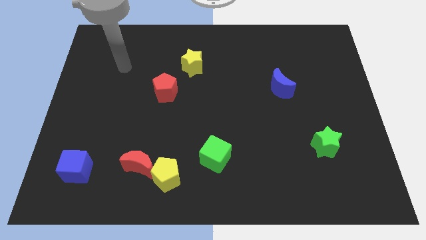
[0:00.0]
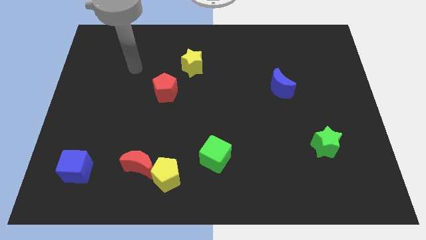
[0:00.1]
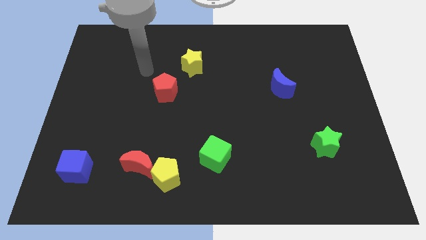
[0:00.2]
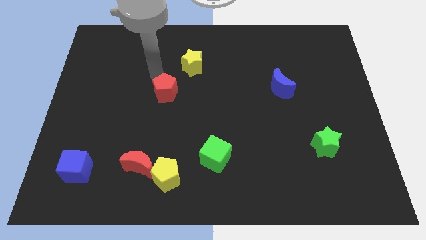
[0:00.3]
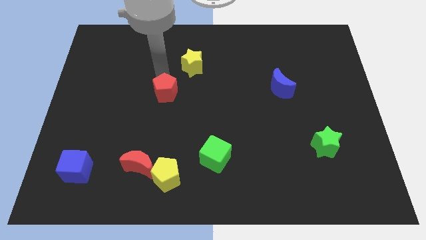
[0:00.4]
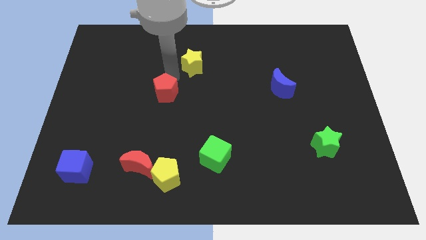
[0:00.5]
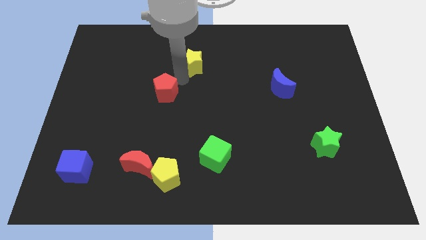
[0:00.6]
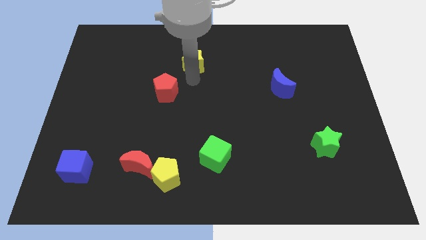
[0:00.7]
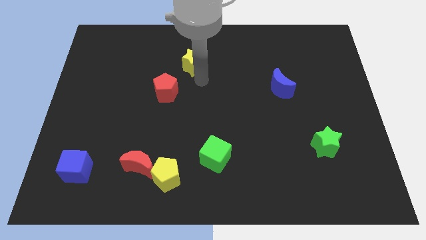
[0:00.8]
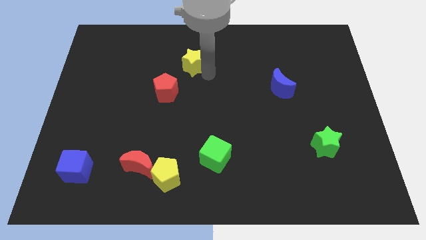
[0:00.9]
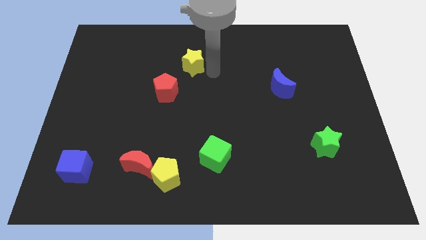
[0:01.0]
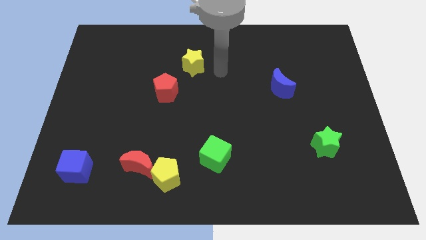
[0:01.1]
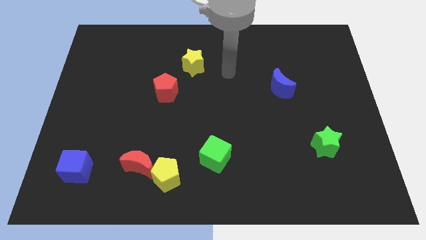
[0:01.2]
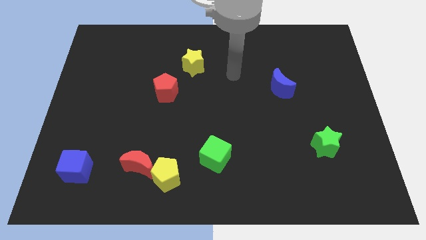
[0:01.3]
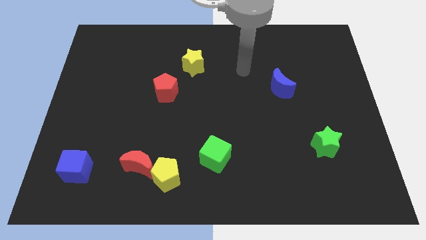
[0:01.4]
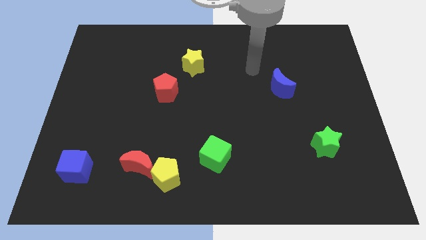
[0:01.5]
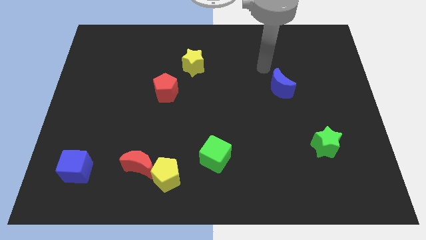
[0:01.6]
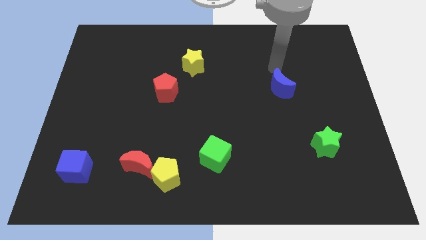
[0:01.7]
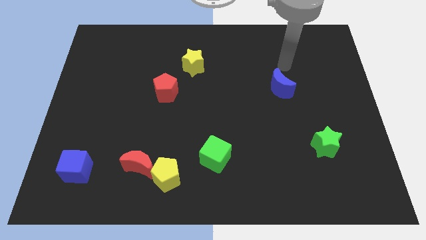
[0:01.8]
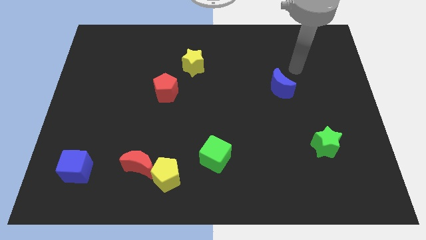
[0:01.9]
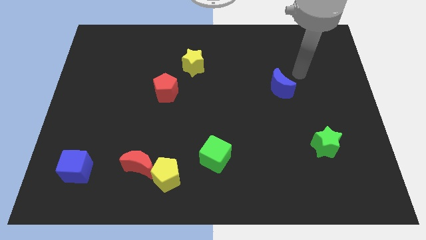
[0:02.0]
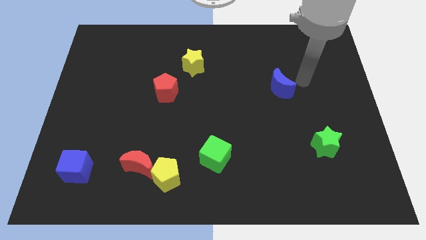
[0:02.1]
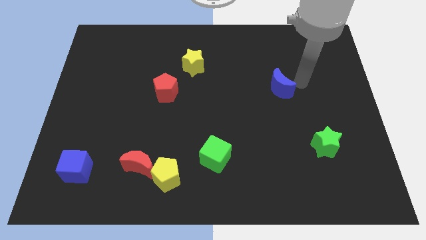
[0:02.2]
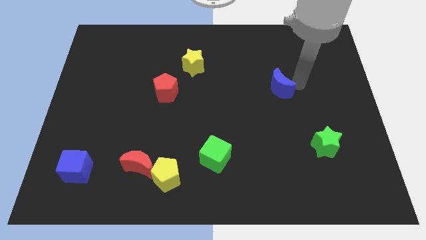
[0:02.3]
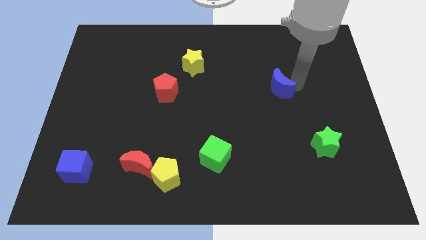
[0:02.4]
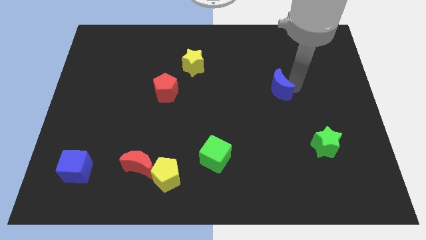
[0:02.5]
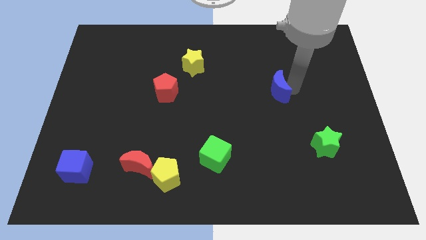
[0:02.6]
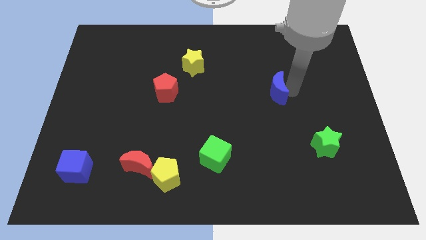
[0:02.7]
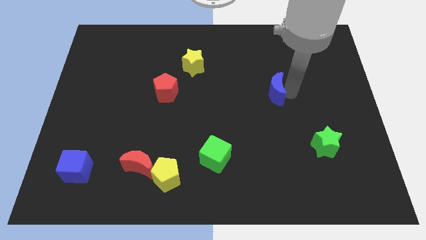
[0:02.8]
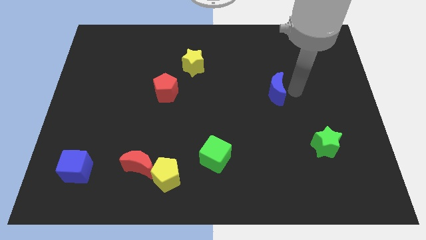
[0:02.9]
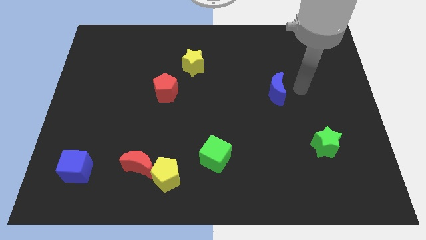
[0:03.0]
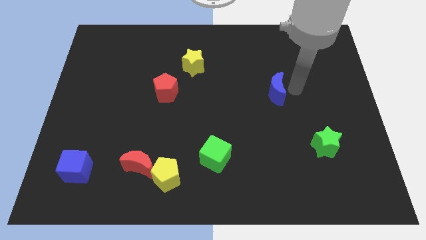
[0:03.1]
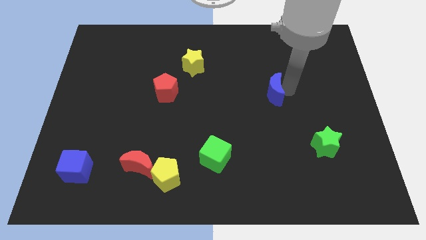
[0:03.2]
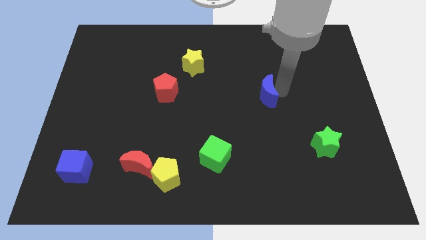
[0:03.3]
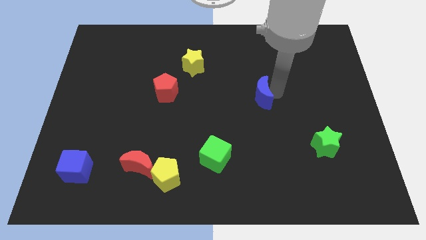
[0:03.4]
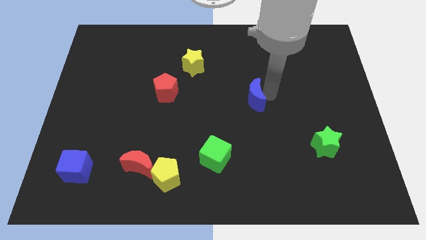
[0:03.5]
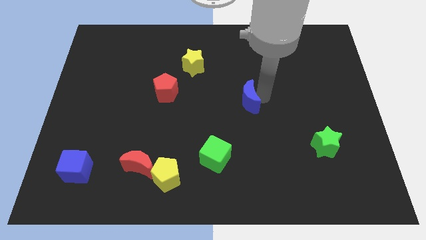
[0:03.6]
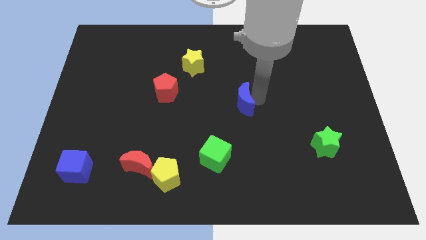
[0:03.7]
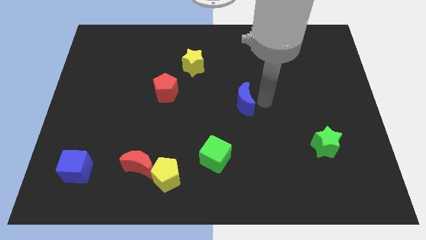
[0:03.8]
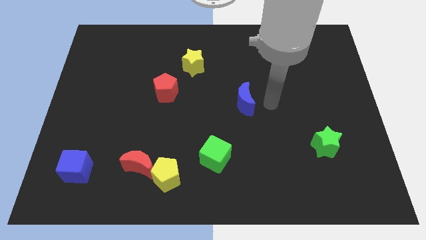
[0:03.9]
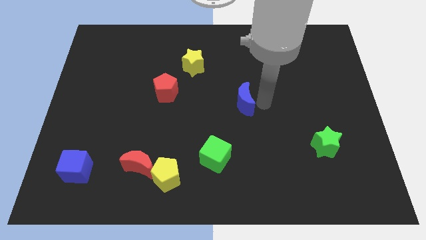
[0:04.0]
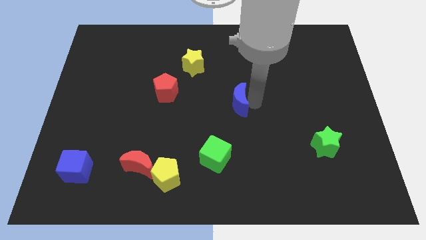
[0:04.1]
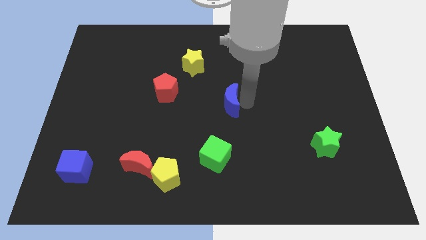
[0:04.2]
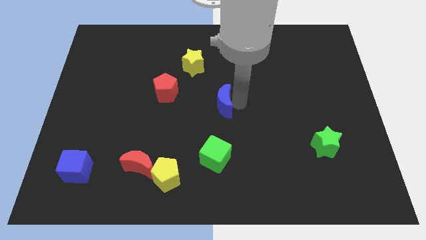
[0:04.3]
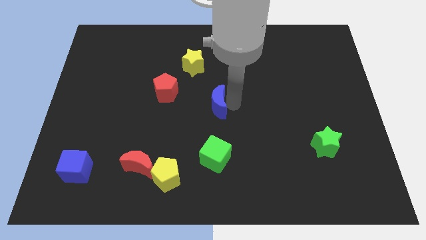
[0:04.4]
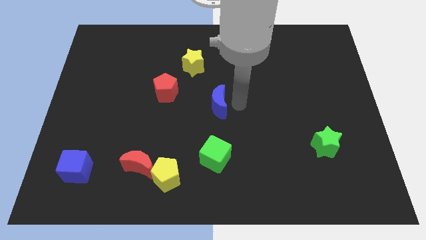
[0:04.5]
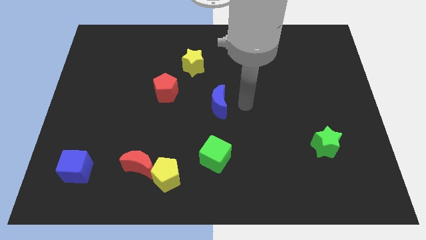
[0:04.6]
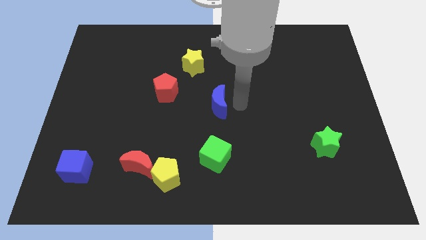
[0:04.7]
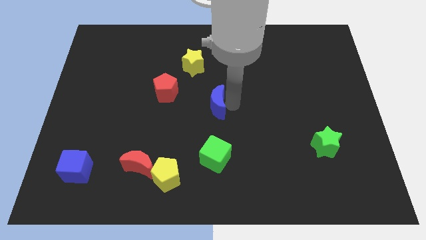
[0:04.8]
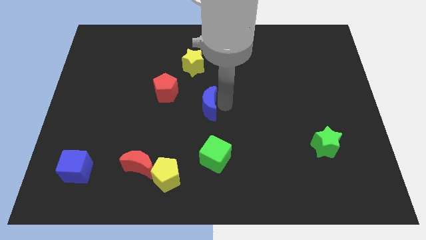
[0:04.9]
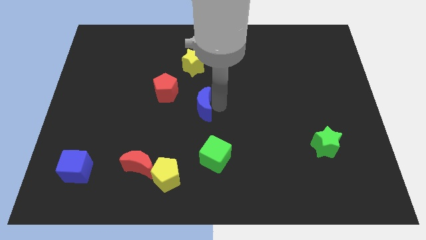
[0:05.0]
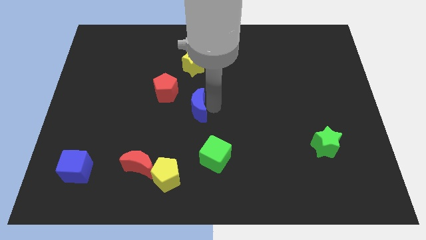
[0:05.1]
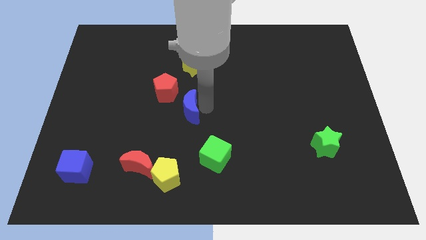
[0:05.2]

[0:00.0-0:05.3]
push the blue moon to the left

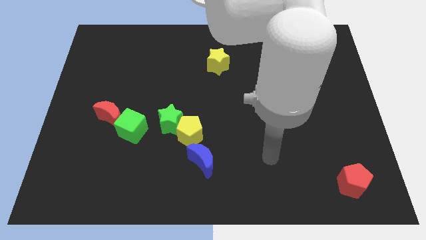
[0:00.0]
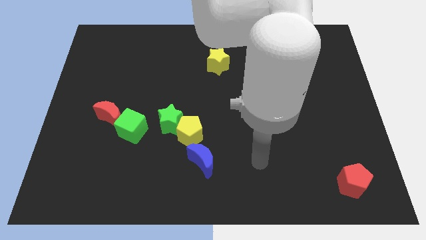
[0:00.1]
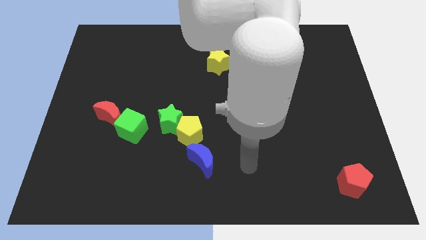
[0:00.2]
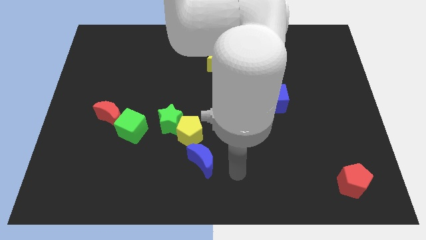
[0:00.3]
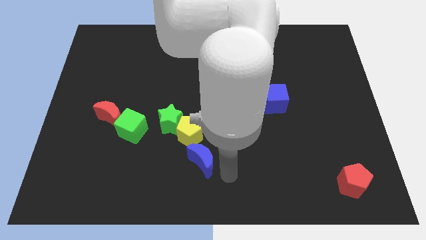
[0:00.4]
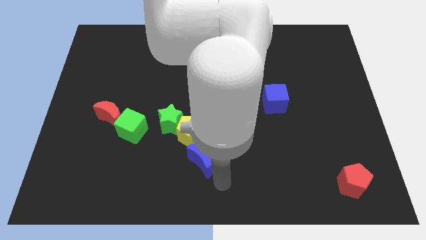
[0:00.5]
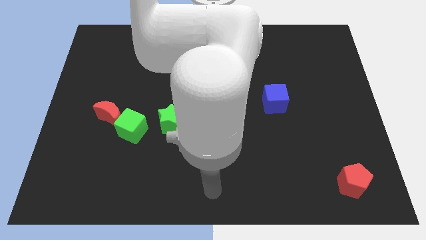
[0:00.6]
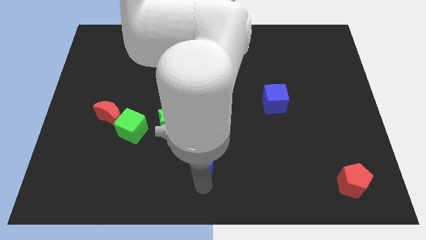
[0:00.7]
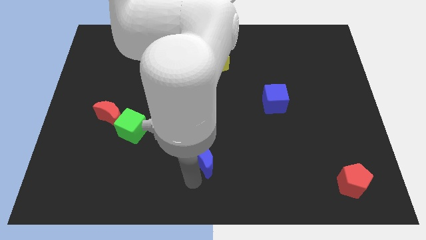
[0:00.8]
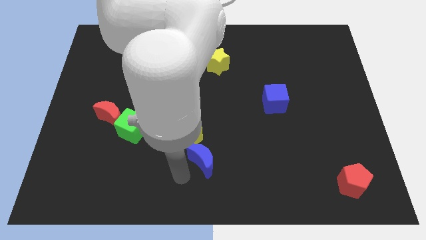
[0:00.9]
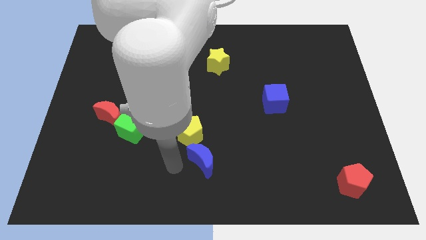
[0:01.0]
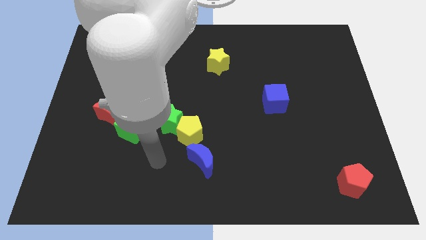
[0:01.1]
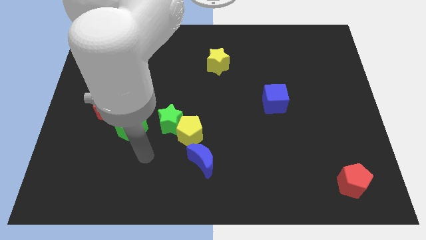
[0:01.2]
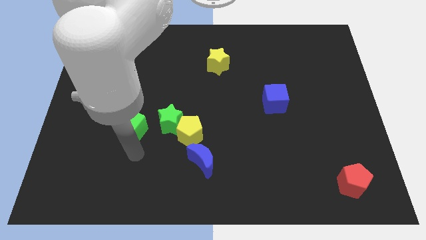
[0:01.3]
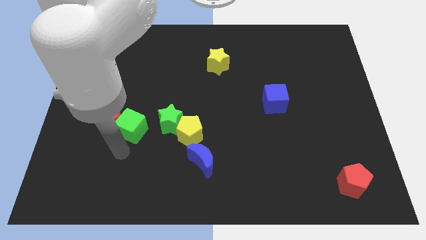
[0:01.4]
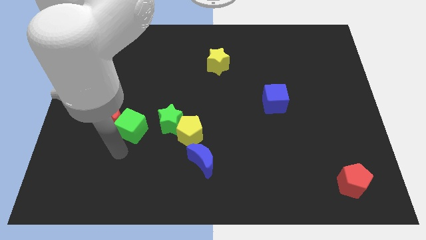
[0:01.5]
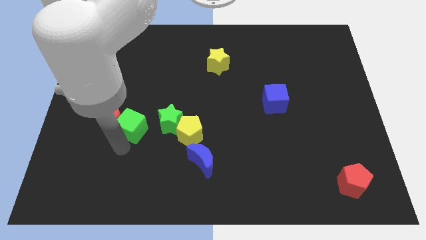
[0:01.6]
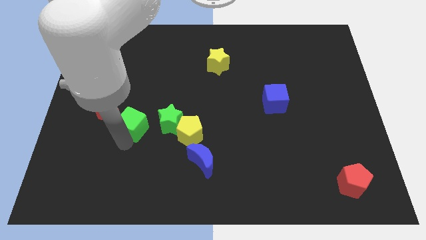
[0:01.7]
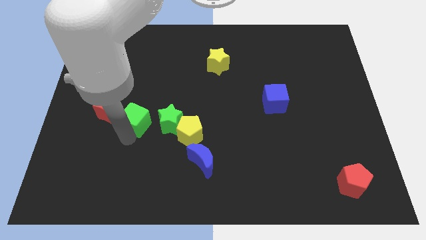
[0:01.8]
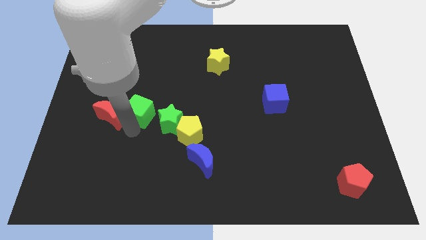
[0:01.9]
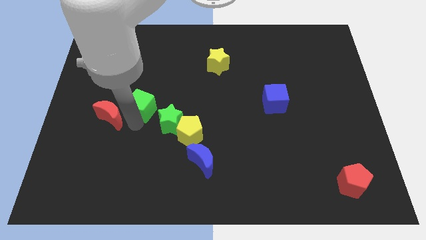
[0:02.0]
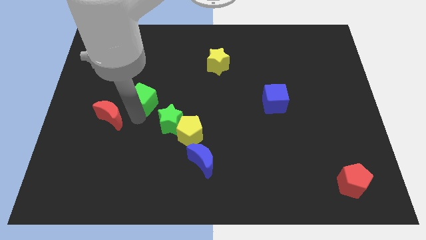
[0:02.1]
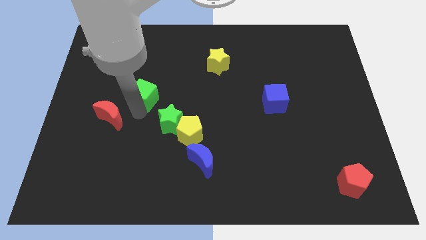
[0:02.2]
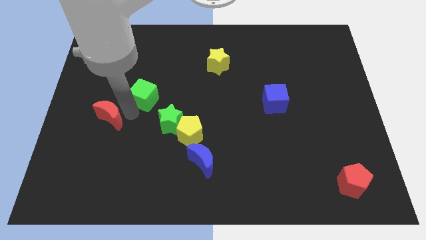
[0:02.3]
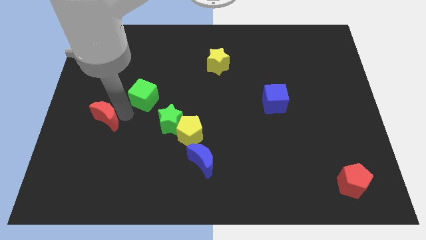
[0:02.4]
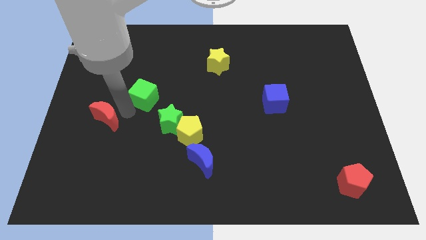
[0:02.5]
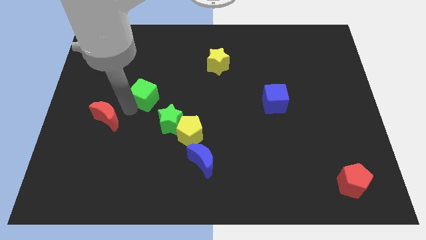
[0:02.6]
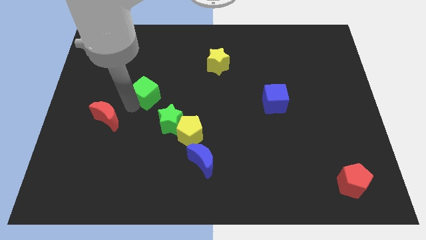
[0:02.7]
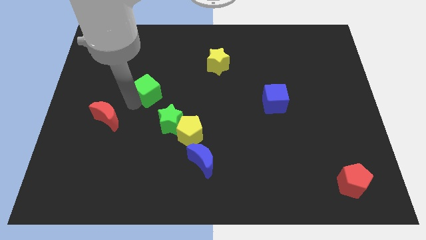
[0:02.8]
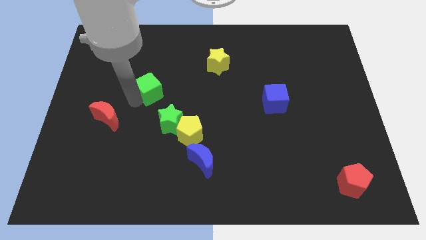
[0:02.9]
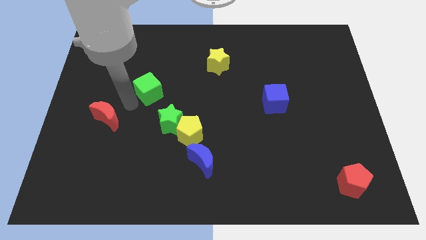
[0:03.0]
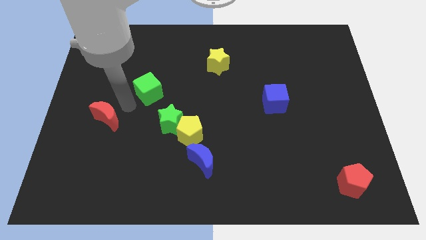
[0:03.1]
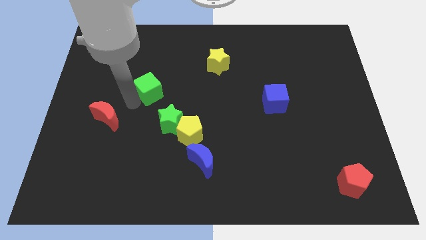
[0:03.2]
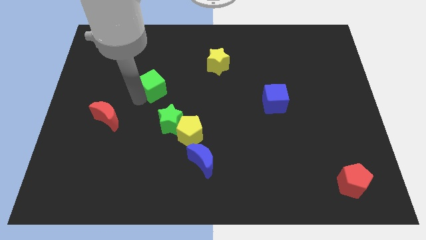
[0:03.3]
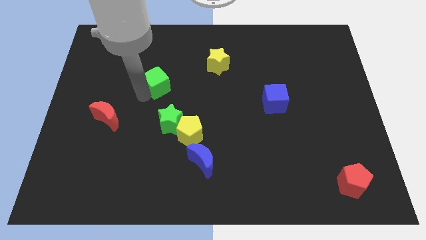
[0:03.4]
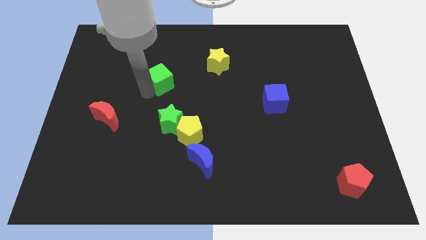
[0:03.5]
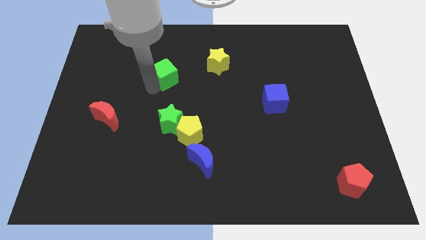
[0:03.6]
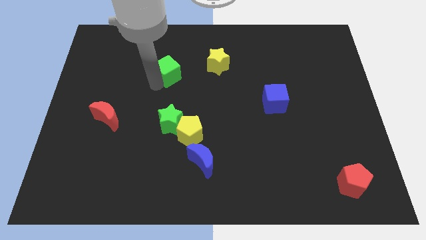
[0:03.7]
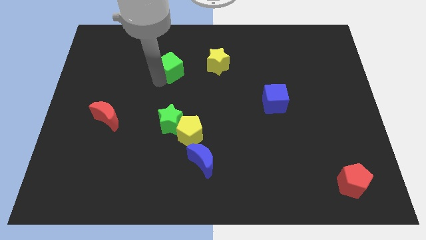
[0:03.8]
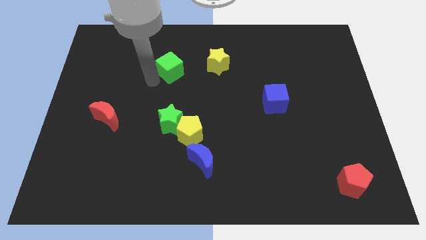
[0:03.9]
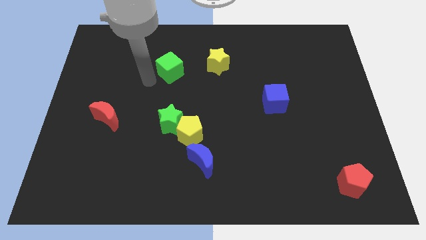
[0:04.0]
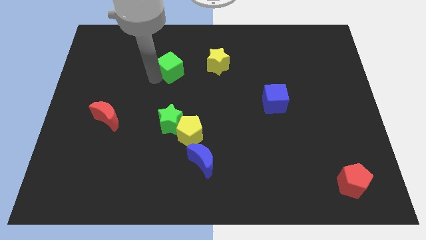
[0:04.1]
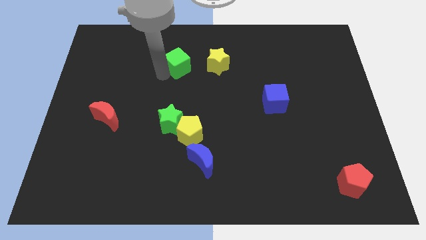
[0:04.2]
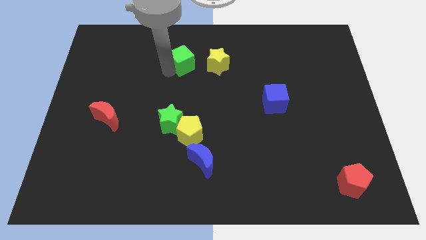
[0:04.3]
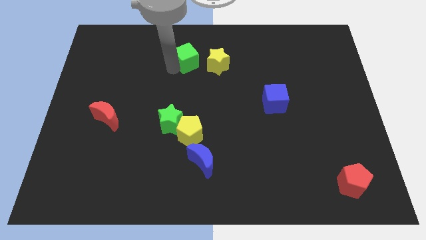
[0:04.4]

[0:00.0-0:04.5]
slide the green cube up and right diagonally
